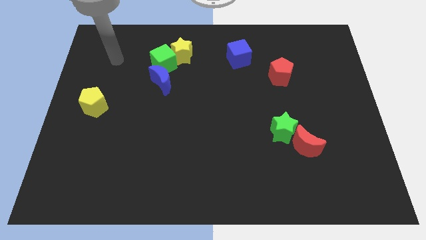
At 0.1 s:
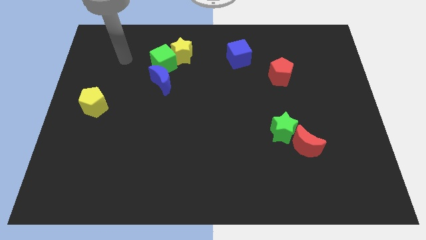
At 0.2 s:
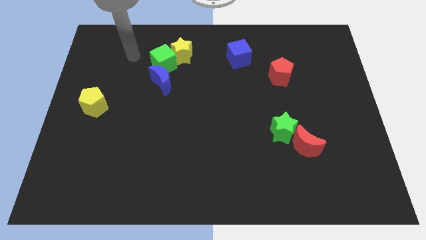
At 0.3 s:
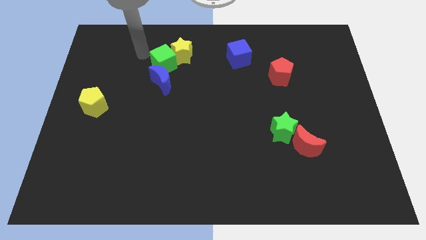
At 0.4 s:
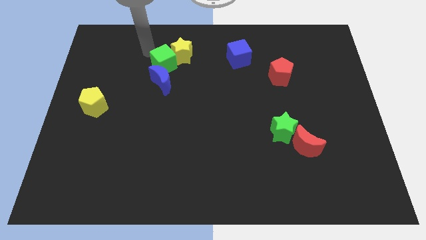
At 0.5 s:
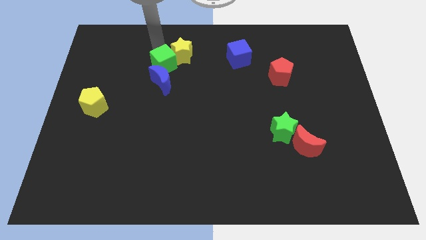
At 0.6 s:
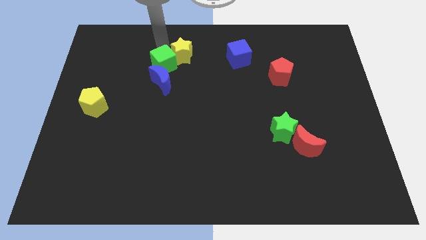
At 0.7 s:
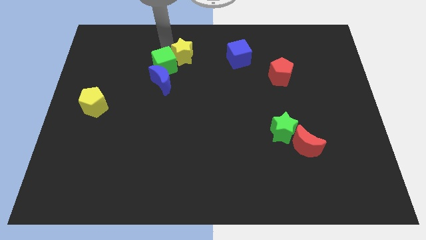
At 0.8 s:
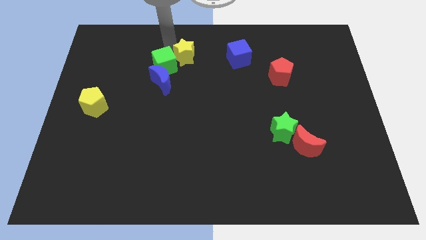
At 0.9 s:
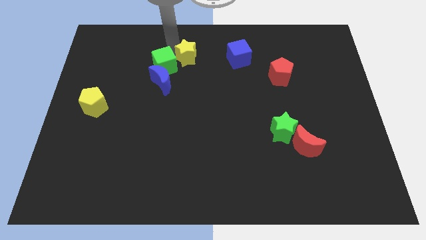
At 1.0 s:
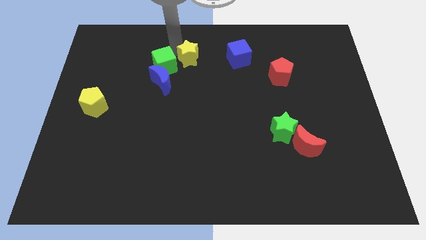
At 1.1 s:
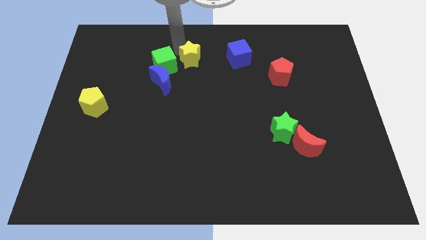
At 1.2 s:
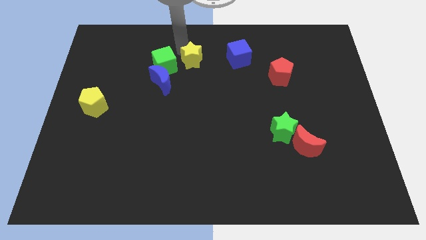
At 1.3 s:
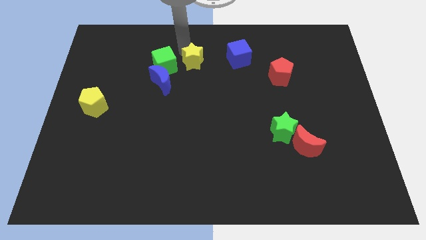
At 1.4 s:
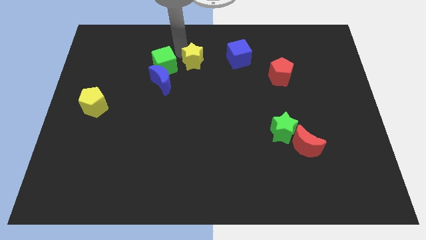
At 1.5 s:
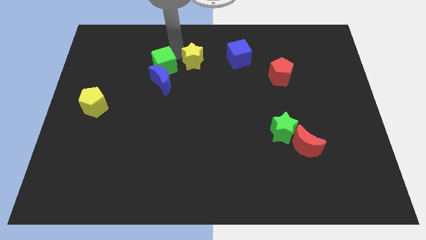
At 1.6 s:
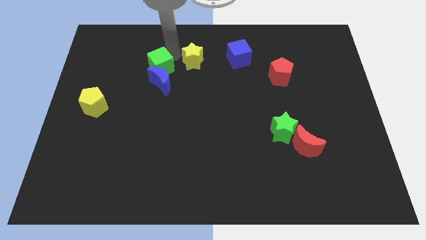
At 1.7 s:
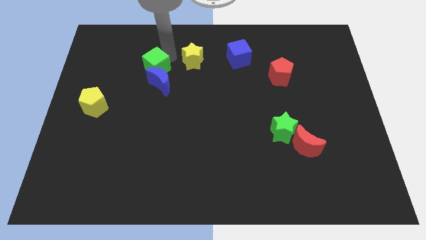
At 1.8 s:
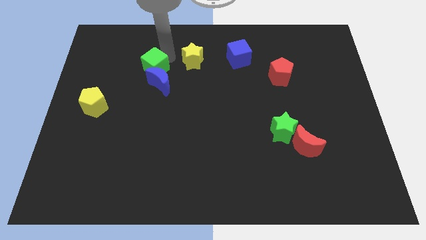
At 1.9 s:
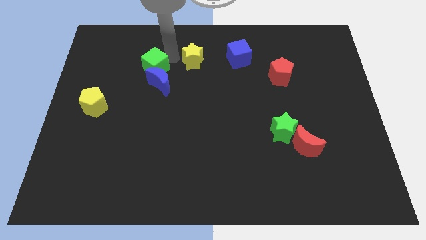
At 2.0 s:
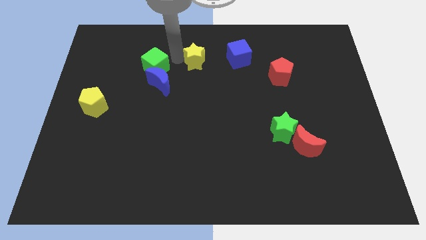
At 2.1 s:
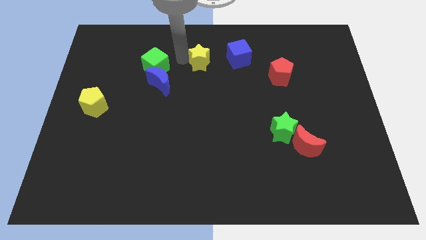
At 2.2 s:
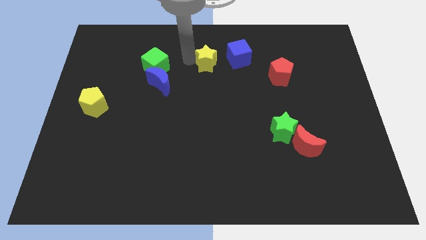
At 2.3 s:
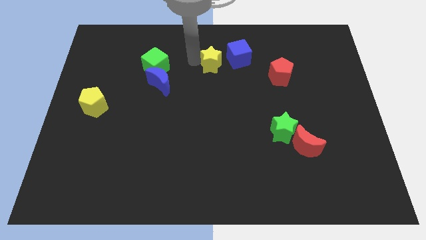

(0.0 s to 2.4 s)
slide the yellow star a little bit to the right

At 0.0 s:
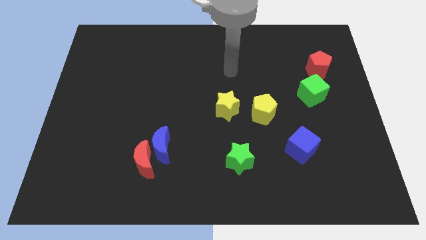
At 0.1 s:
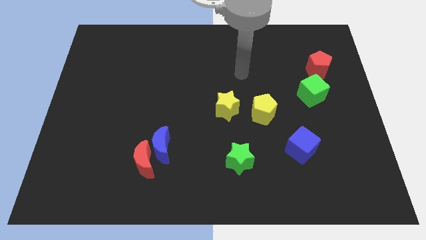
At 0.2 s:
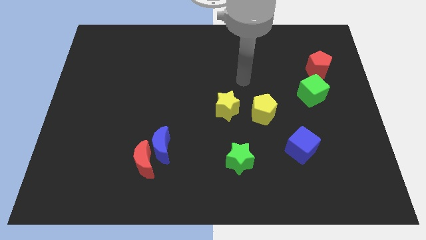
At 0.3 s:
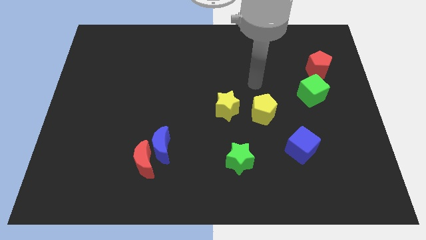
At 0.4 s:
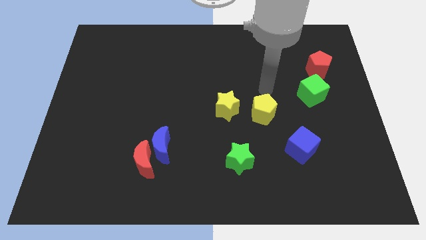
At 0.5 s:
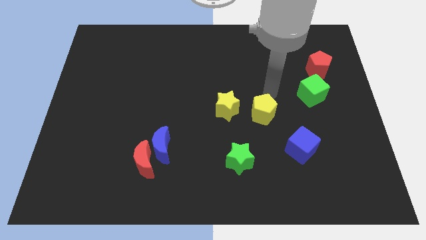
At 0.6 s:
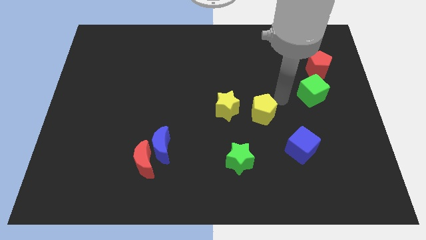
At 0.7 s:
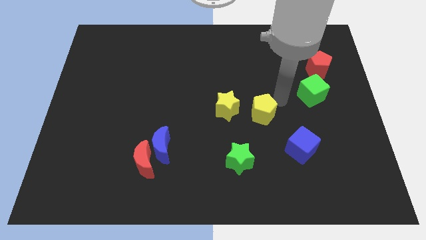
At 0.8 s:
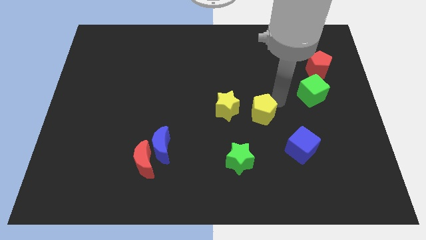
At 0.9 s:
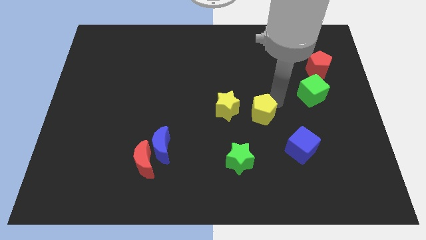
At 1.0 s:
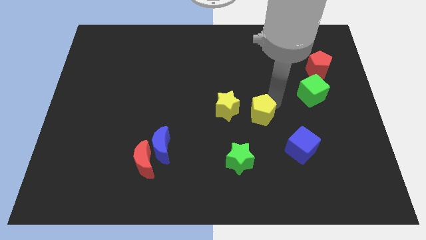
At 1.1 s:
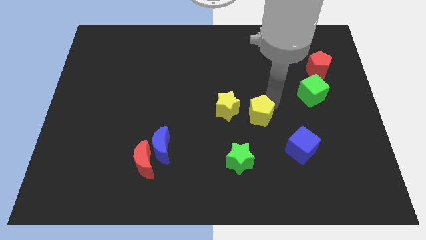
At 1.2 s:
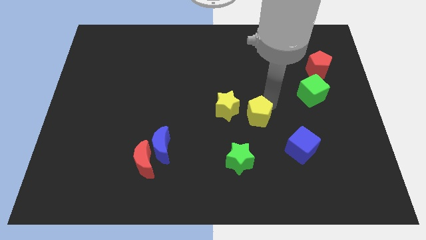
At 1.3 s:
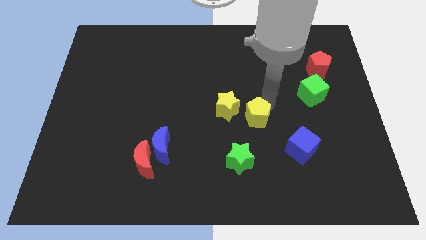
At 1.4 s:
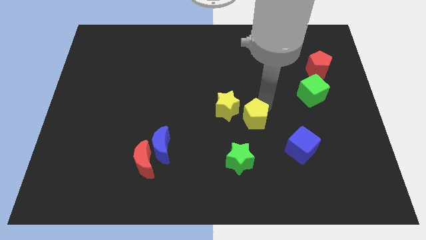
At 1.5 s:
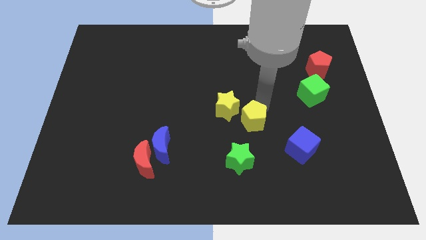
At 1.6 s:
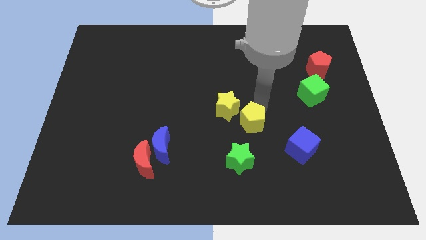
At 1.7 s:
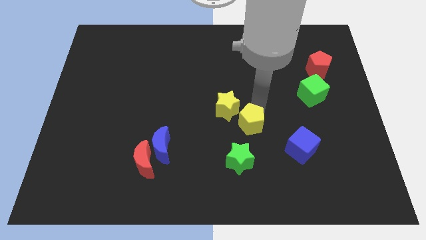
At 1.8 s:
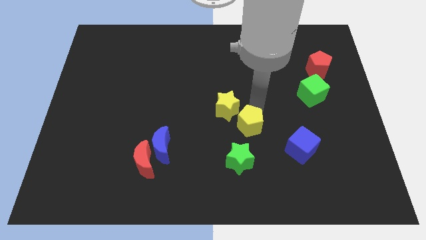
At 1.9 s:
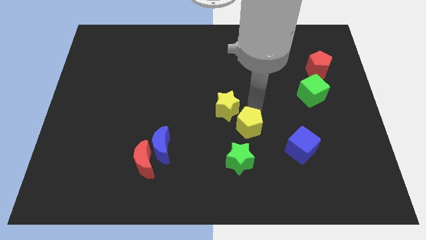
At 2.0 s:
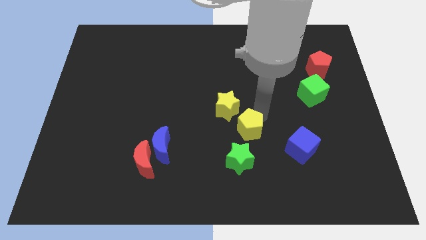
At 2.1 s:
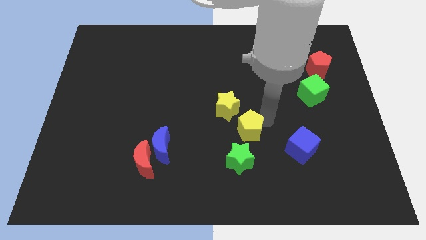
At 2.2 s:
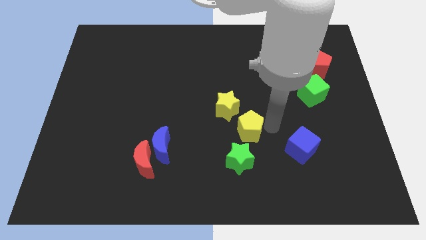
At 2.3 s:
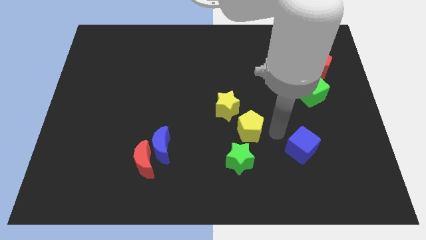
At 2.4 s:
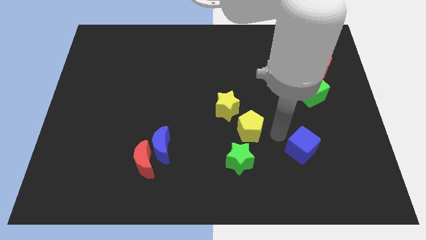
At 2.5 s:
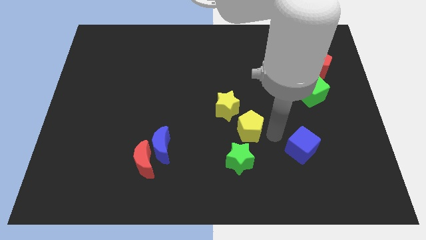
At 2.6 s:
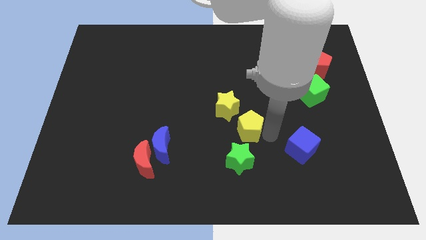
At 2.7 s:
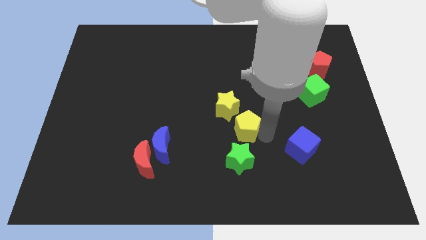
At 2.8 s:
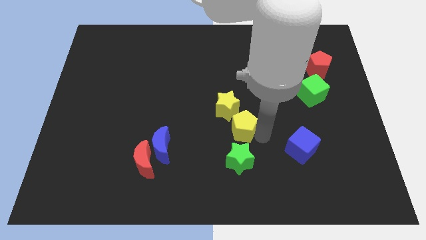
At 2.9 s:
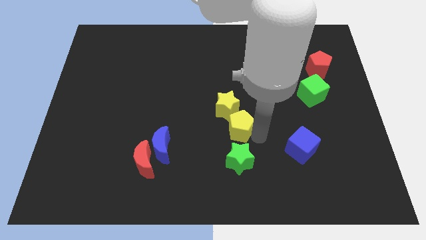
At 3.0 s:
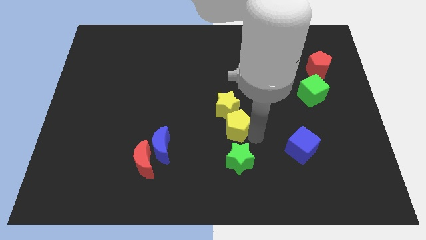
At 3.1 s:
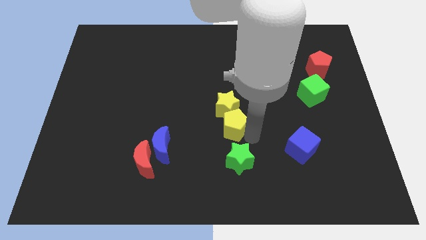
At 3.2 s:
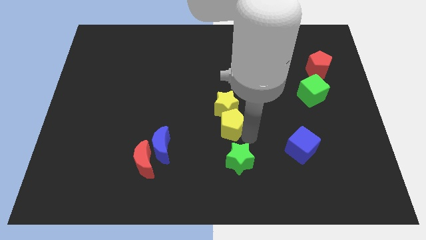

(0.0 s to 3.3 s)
slightly move the yellow pentagon left

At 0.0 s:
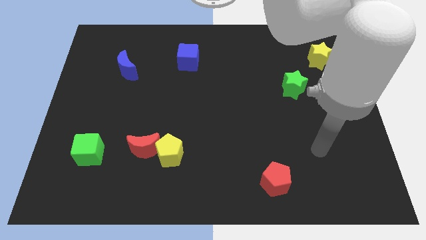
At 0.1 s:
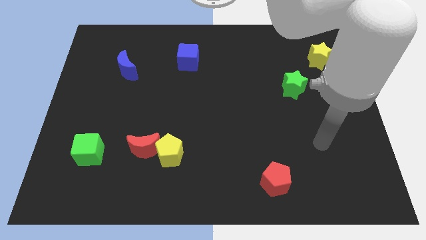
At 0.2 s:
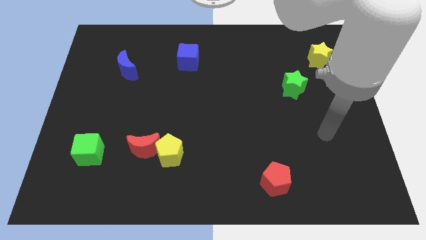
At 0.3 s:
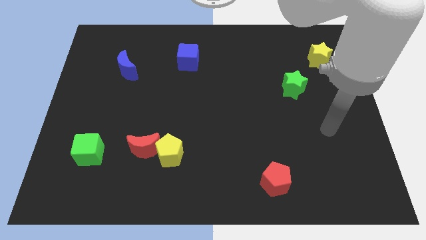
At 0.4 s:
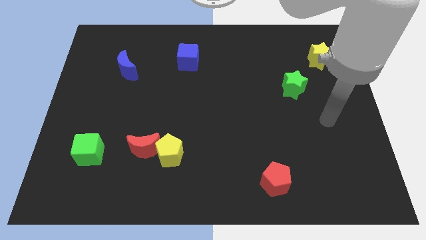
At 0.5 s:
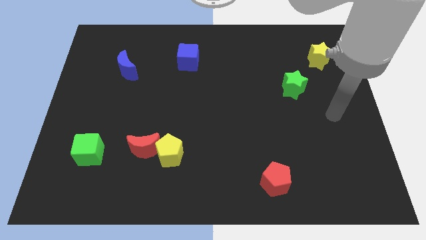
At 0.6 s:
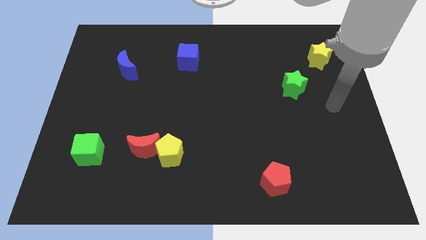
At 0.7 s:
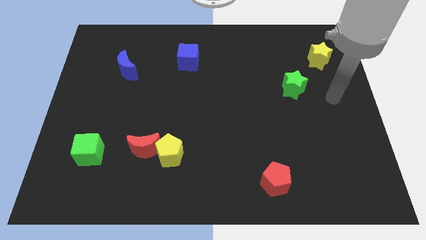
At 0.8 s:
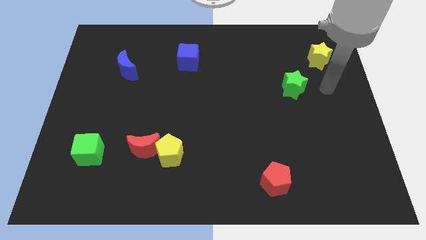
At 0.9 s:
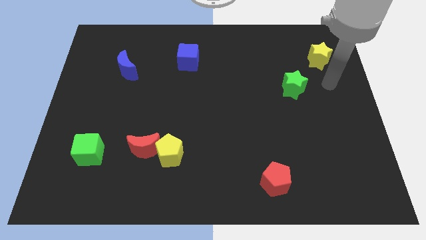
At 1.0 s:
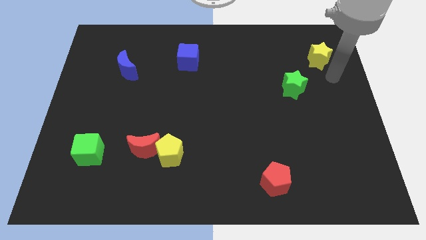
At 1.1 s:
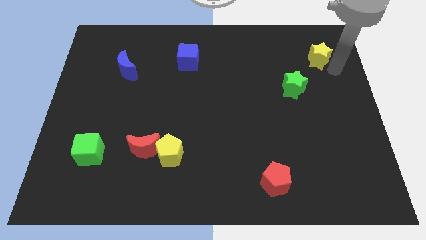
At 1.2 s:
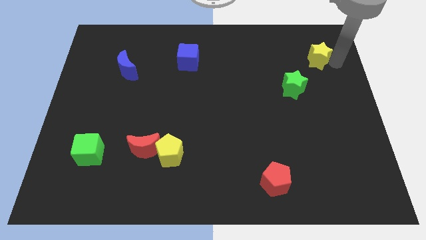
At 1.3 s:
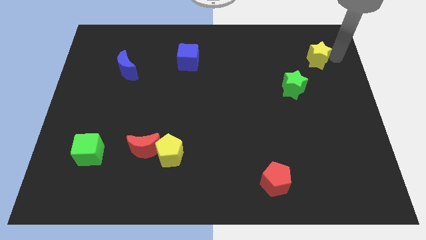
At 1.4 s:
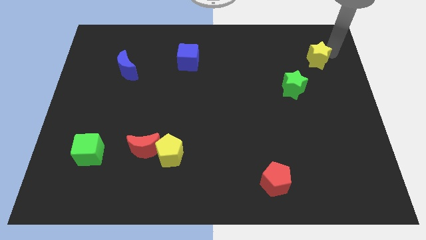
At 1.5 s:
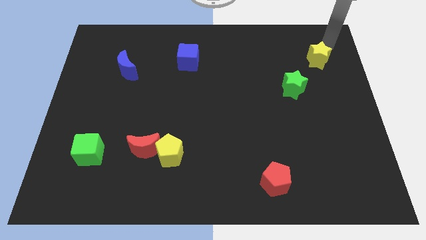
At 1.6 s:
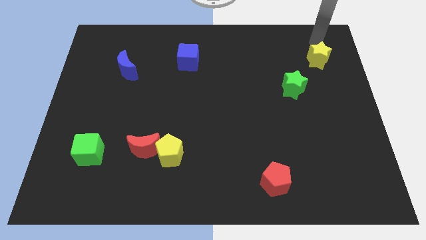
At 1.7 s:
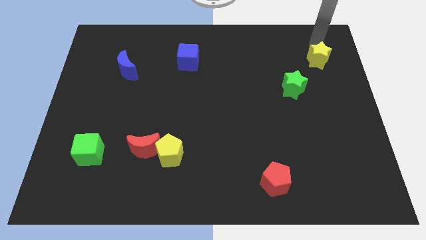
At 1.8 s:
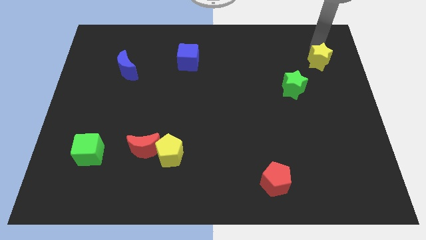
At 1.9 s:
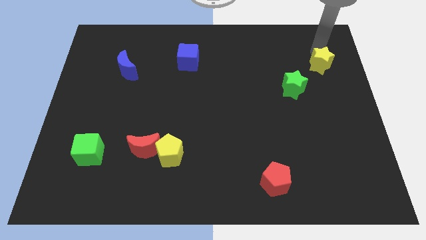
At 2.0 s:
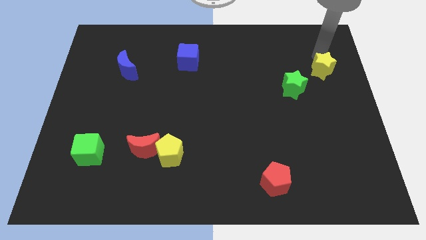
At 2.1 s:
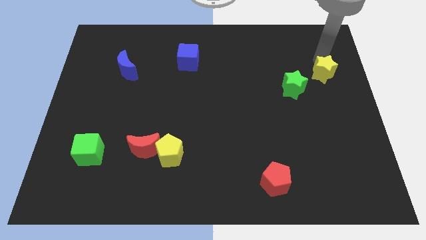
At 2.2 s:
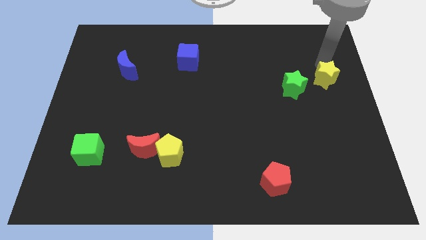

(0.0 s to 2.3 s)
slightly push the yellow star down
